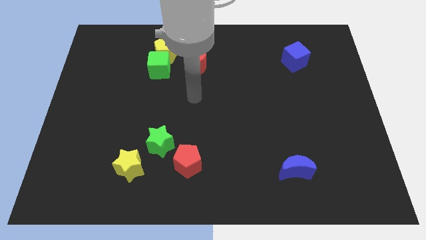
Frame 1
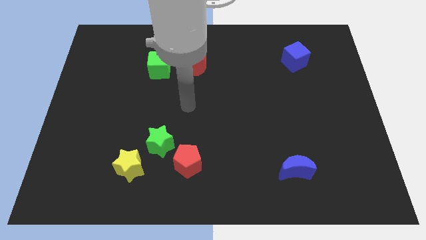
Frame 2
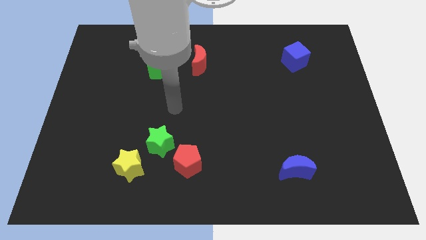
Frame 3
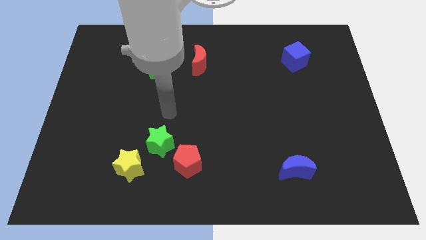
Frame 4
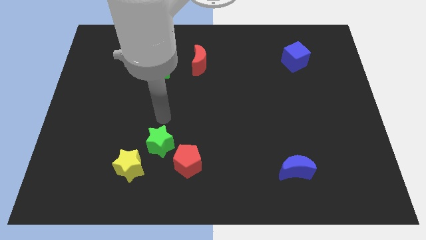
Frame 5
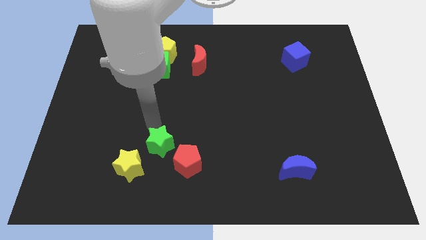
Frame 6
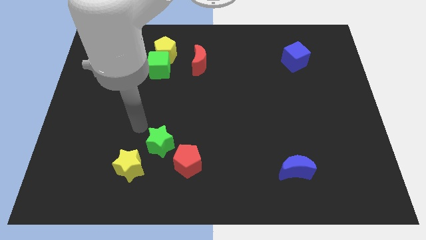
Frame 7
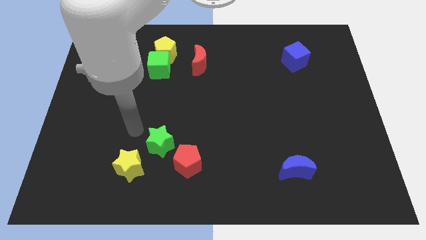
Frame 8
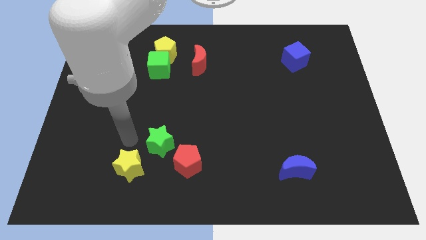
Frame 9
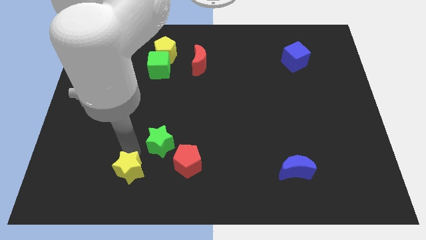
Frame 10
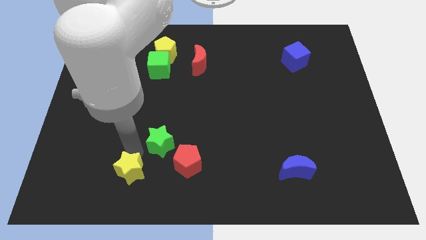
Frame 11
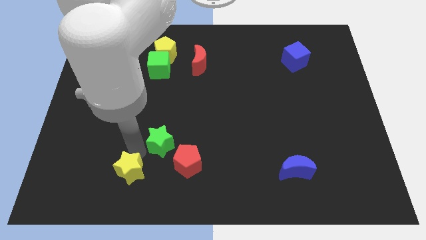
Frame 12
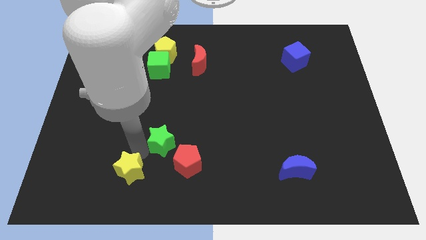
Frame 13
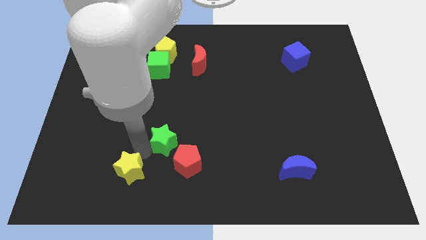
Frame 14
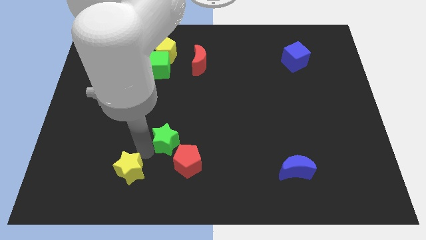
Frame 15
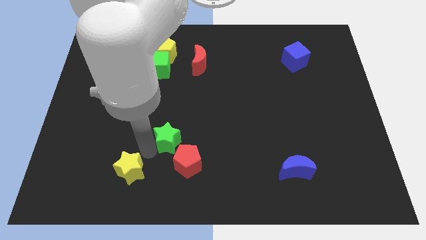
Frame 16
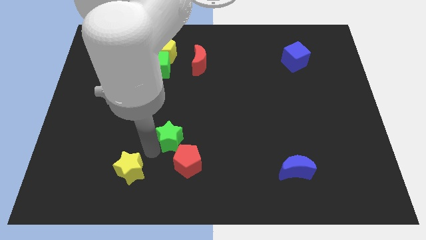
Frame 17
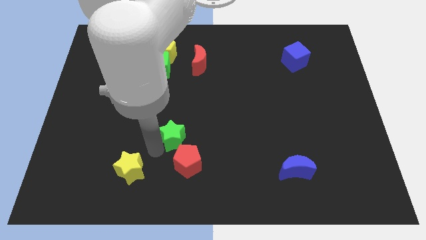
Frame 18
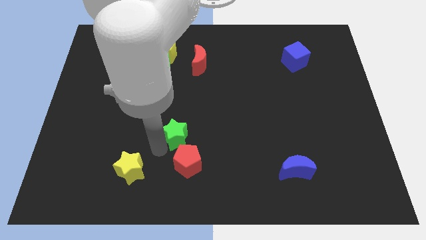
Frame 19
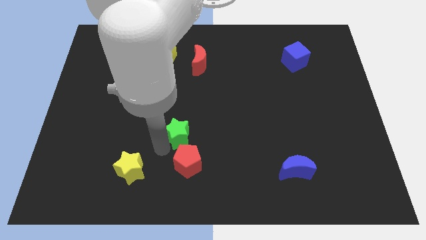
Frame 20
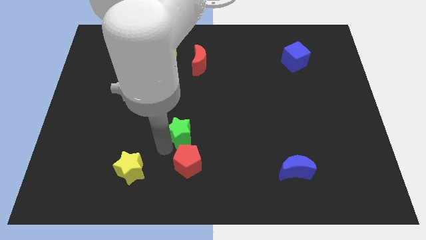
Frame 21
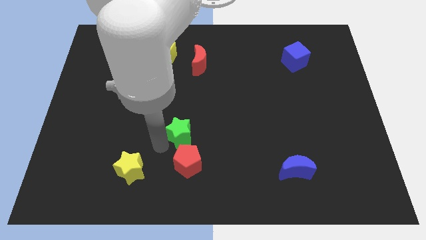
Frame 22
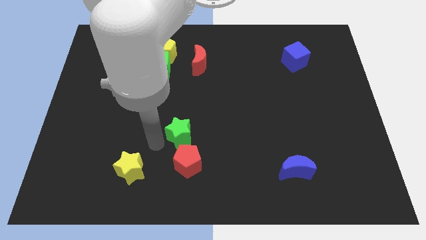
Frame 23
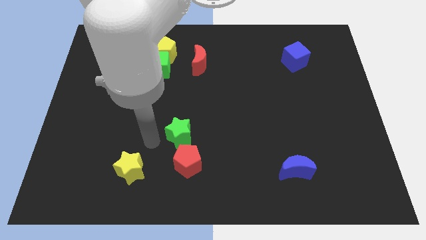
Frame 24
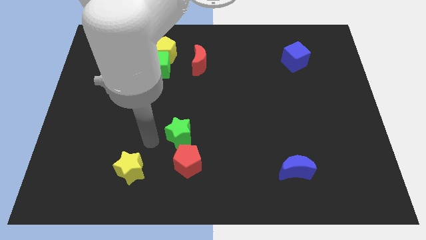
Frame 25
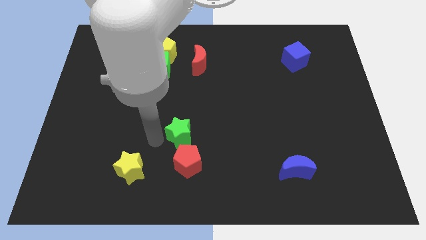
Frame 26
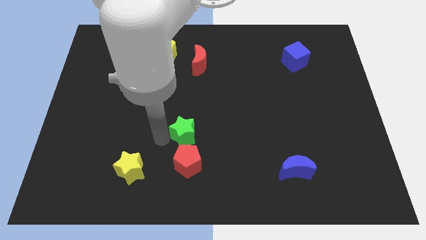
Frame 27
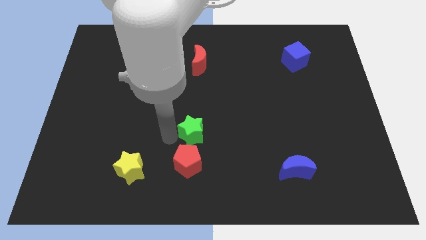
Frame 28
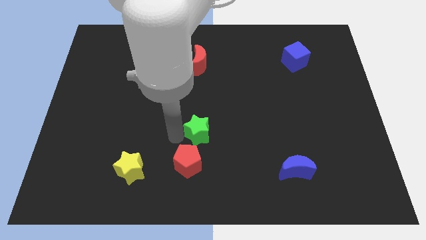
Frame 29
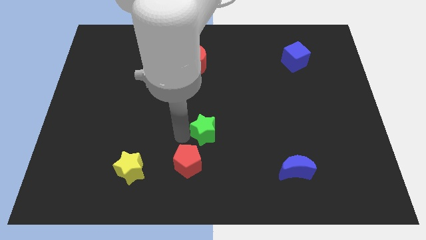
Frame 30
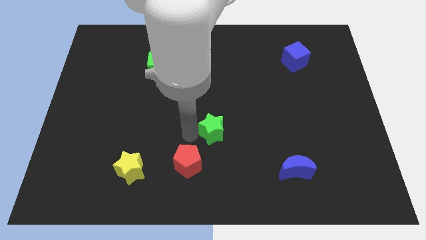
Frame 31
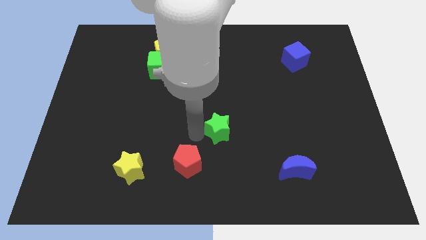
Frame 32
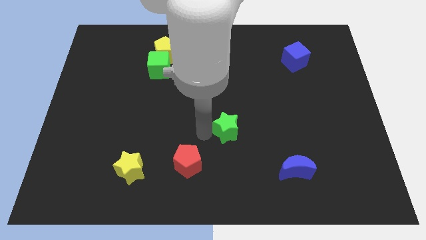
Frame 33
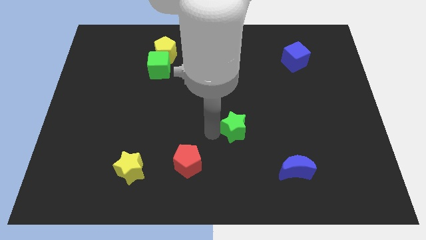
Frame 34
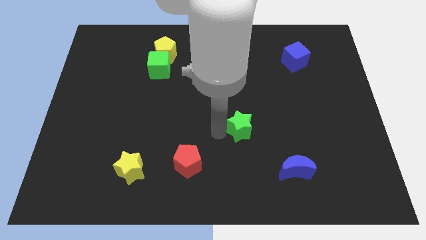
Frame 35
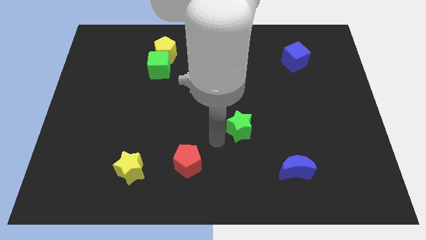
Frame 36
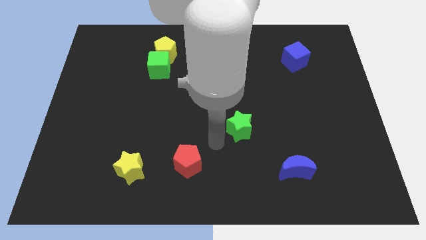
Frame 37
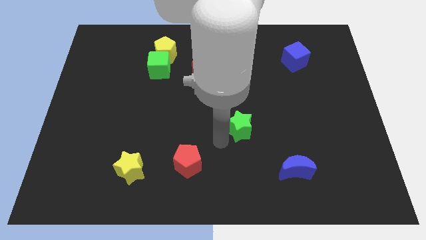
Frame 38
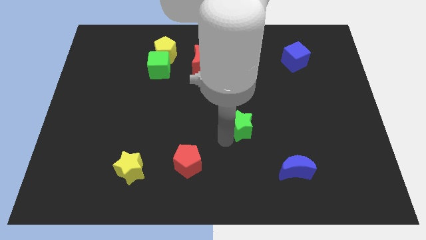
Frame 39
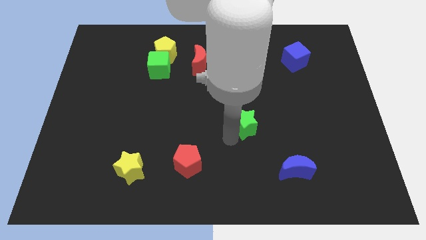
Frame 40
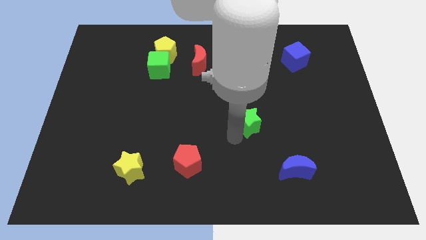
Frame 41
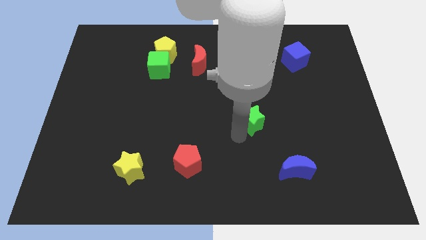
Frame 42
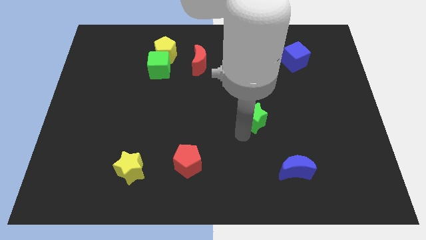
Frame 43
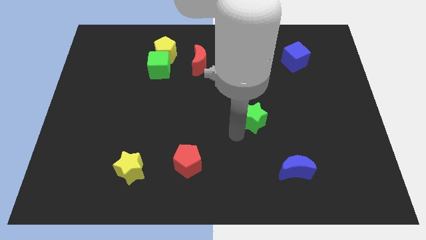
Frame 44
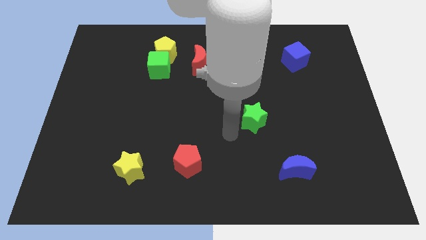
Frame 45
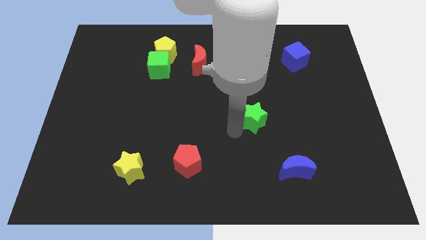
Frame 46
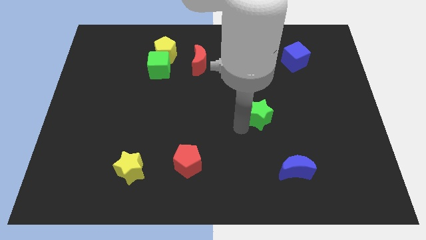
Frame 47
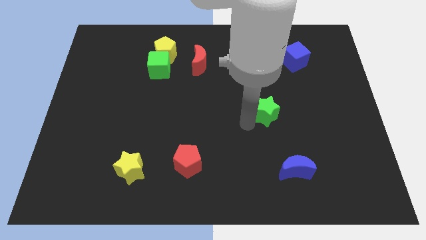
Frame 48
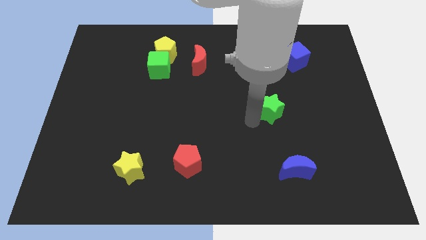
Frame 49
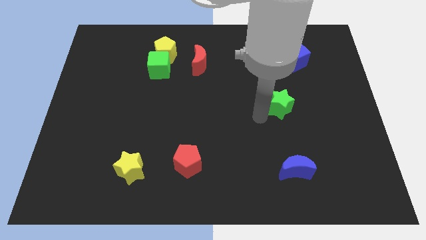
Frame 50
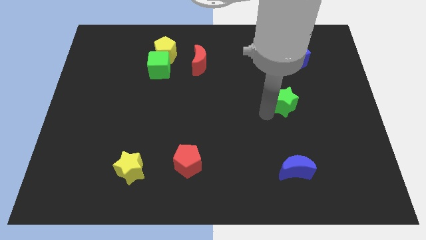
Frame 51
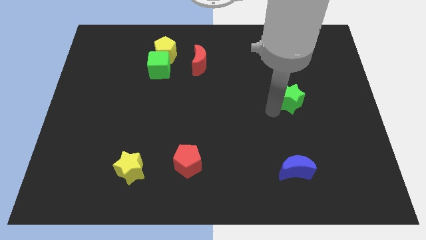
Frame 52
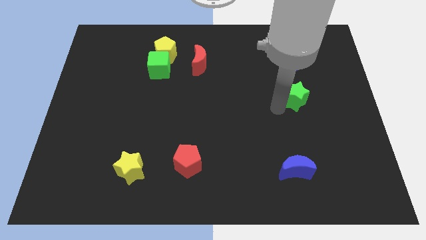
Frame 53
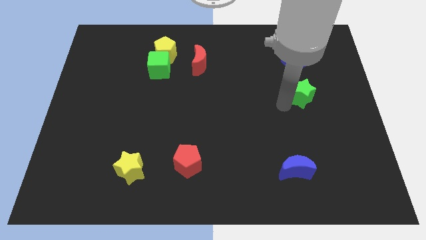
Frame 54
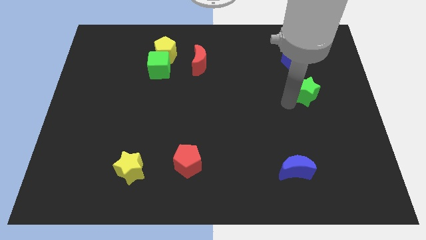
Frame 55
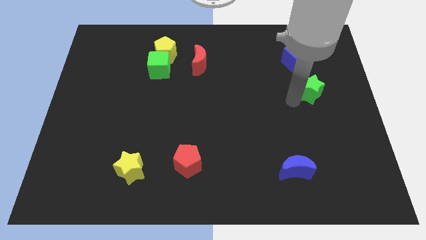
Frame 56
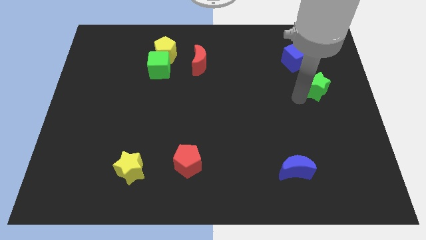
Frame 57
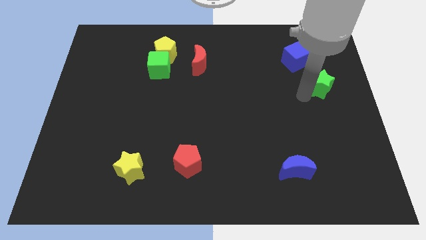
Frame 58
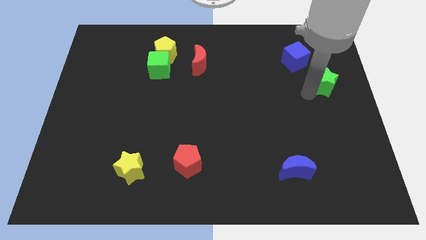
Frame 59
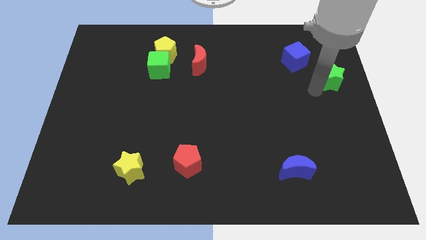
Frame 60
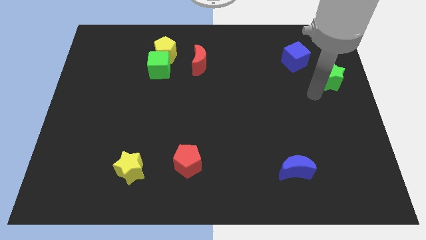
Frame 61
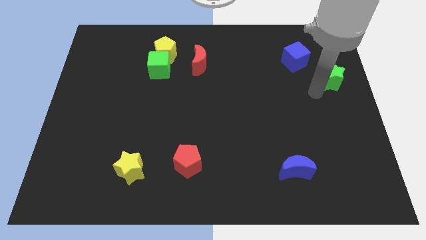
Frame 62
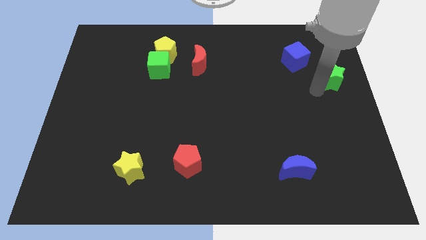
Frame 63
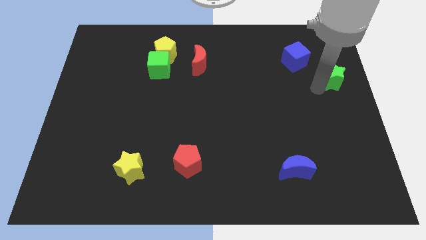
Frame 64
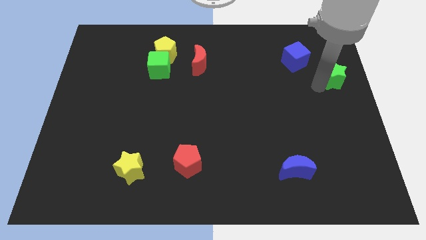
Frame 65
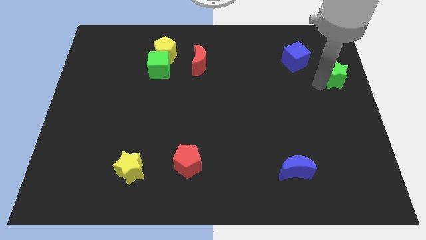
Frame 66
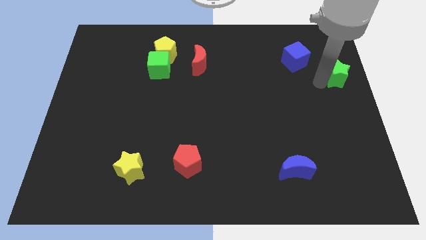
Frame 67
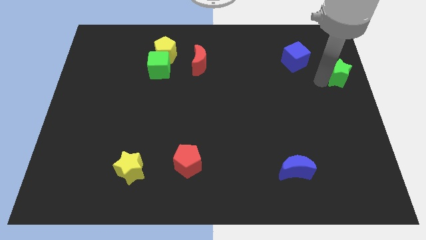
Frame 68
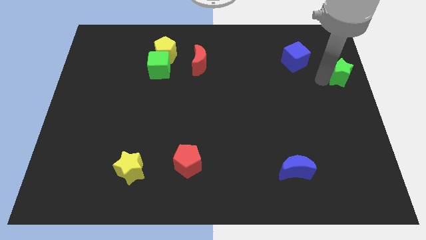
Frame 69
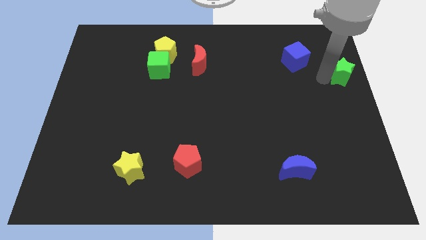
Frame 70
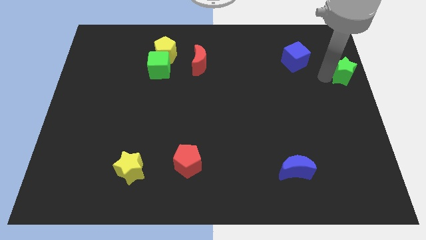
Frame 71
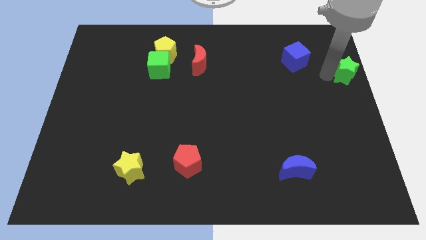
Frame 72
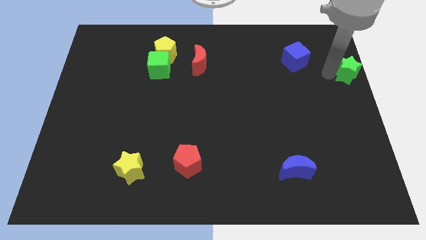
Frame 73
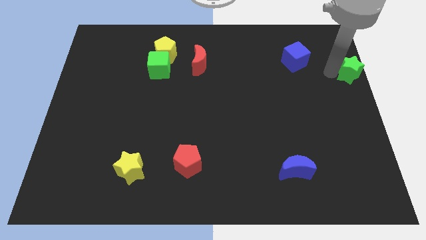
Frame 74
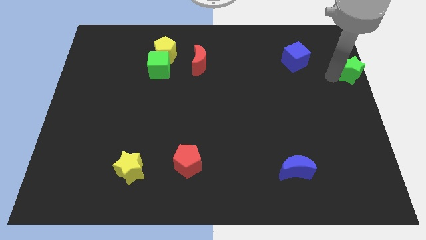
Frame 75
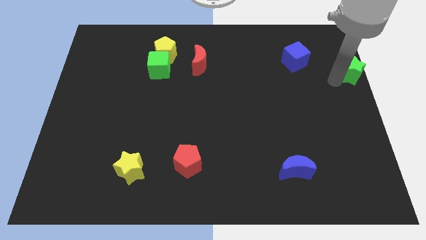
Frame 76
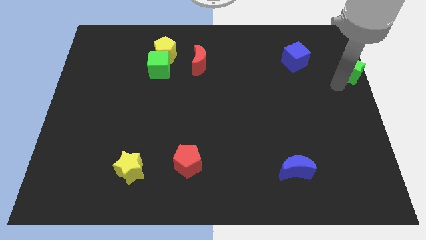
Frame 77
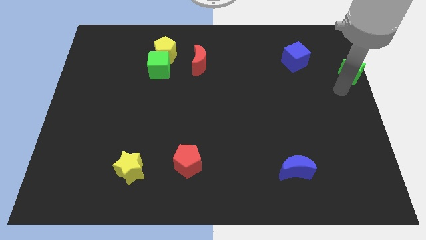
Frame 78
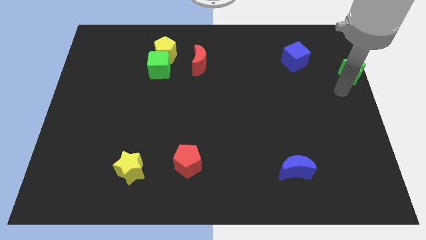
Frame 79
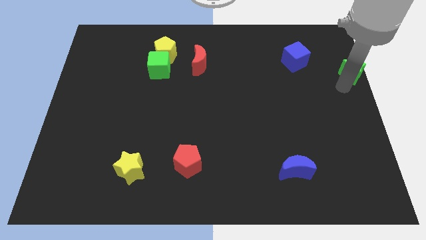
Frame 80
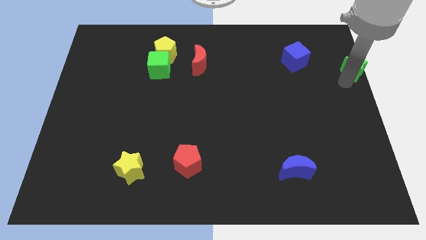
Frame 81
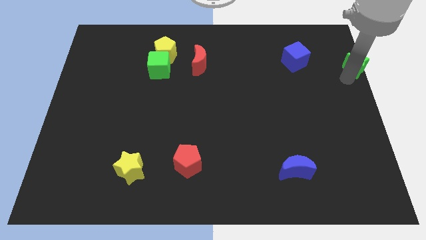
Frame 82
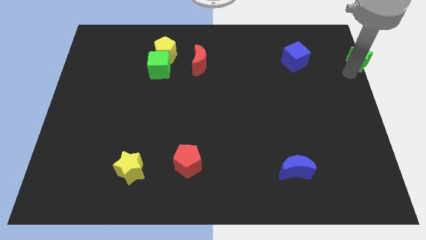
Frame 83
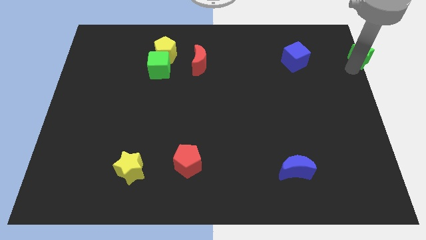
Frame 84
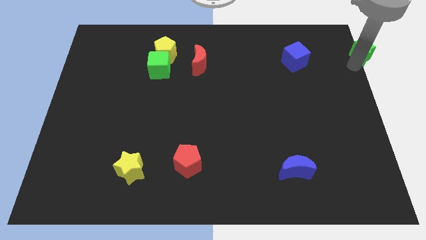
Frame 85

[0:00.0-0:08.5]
push the green star to the upper right corner
